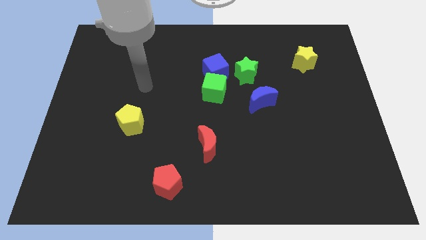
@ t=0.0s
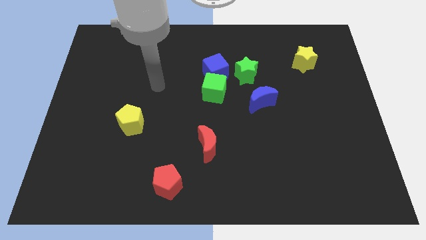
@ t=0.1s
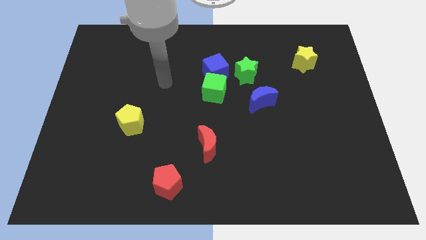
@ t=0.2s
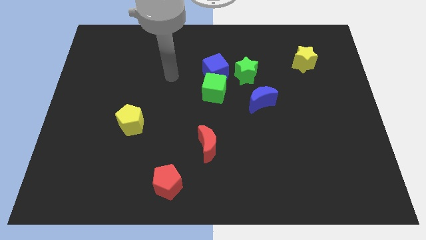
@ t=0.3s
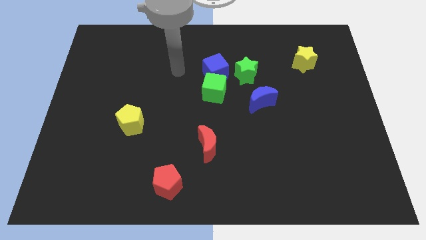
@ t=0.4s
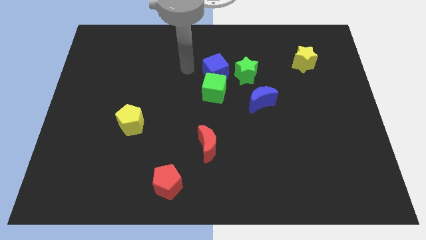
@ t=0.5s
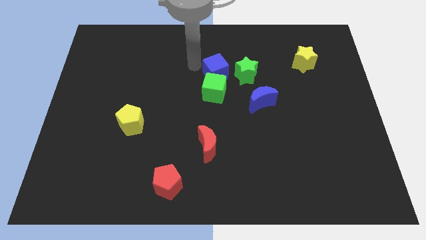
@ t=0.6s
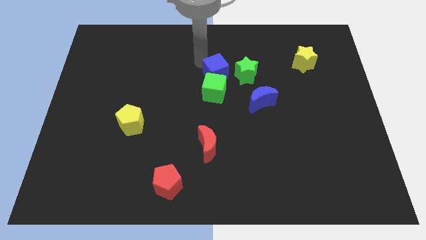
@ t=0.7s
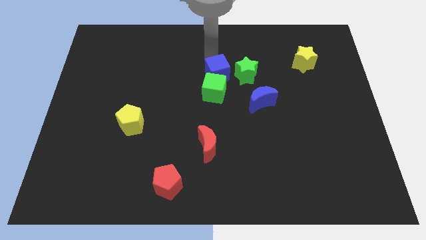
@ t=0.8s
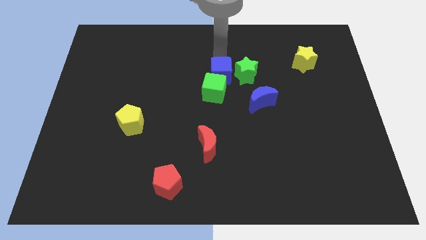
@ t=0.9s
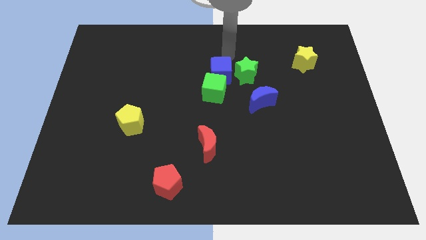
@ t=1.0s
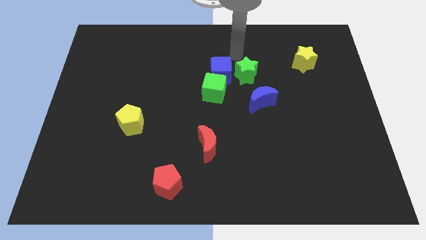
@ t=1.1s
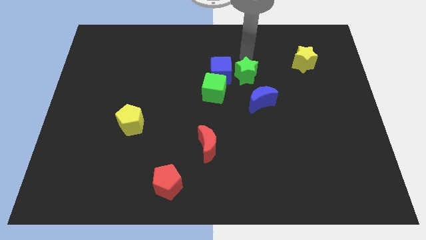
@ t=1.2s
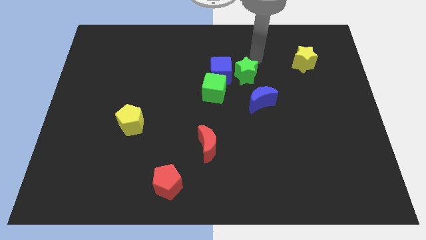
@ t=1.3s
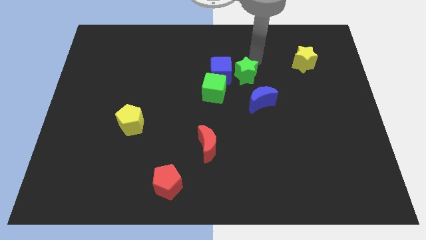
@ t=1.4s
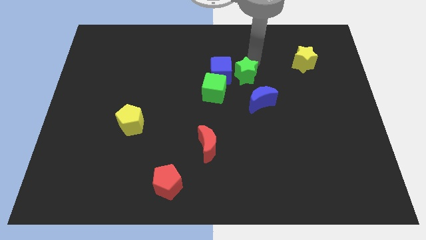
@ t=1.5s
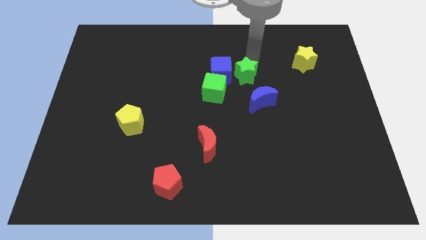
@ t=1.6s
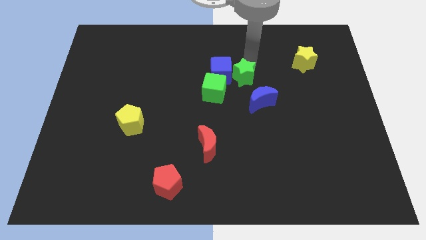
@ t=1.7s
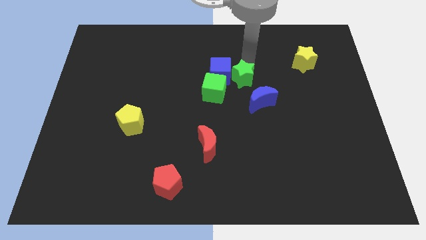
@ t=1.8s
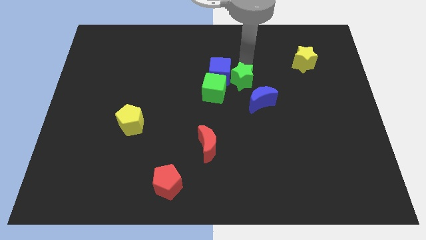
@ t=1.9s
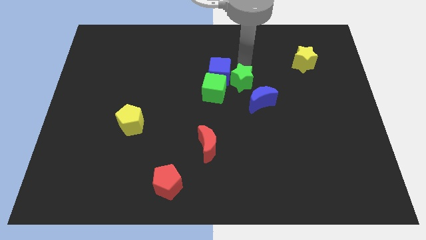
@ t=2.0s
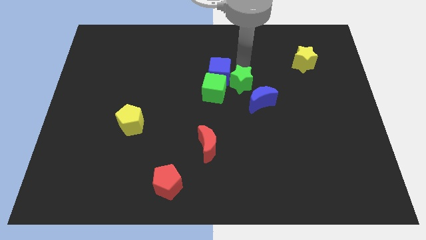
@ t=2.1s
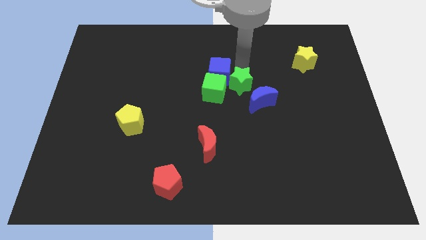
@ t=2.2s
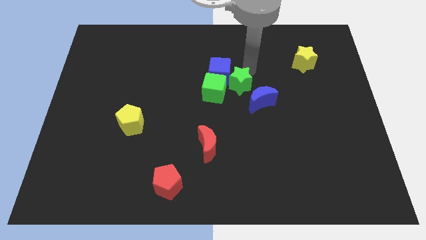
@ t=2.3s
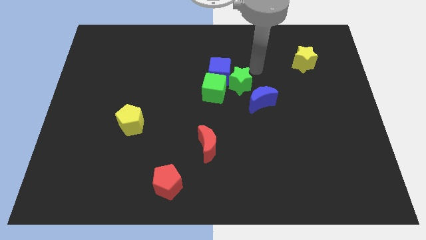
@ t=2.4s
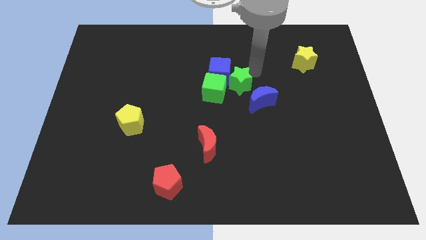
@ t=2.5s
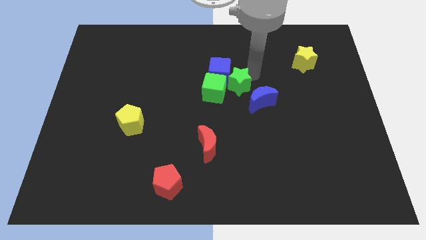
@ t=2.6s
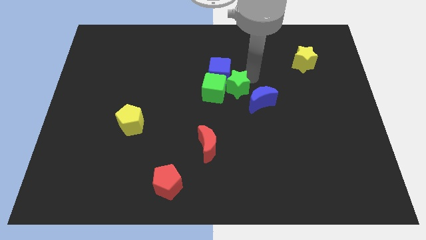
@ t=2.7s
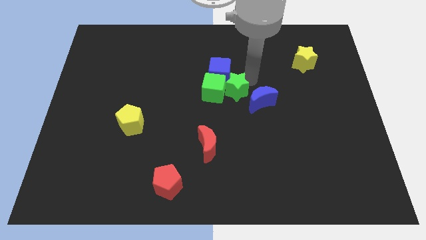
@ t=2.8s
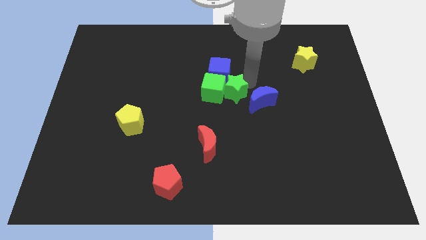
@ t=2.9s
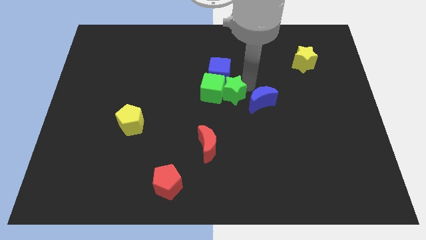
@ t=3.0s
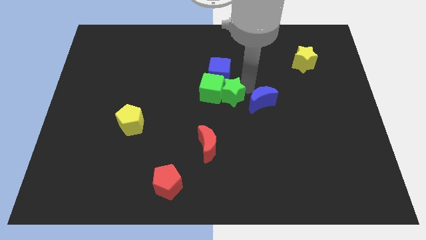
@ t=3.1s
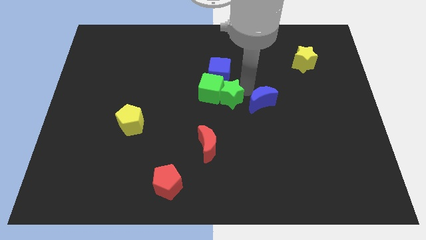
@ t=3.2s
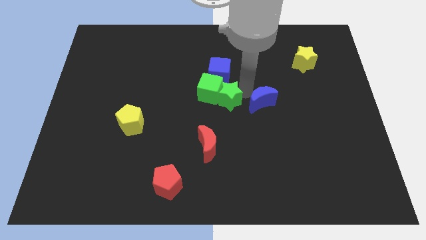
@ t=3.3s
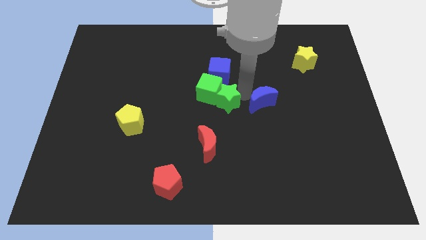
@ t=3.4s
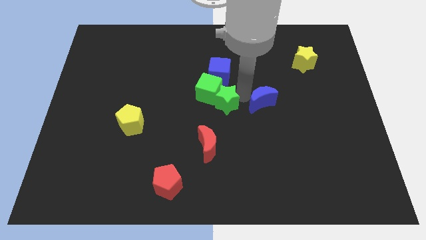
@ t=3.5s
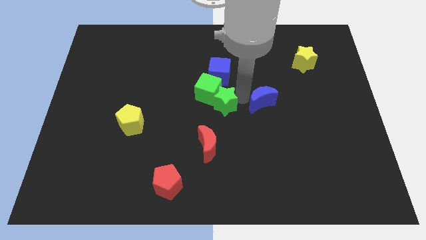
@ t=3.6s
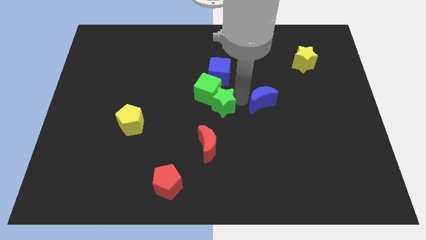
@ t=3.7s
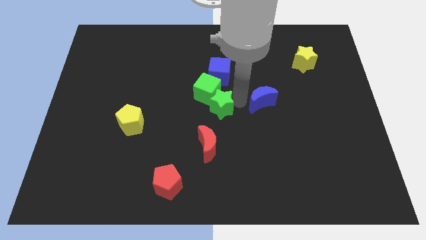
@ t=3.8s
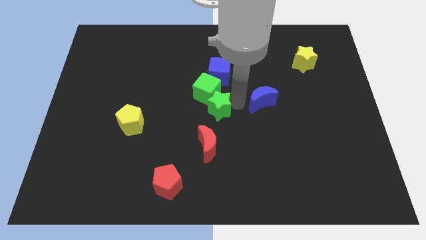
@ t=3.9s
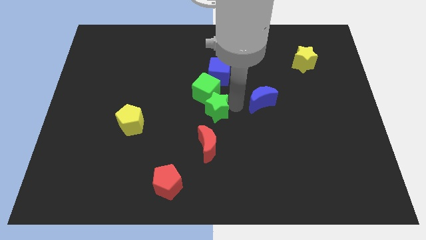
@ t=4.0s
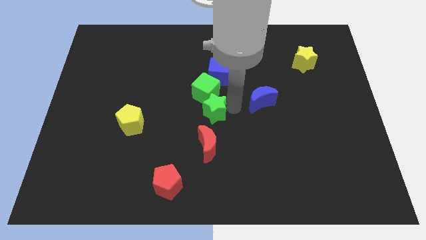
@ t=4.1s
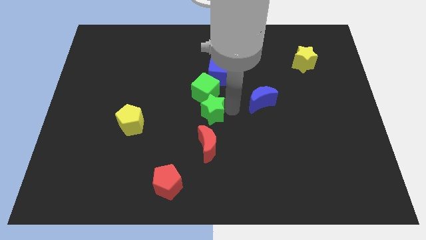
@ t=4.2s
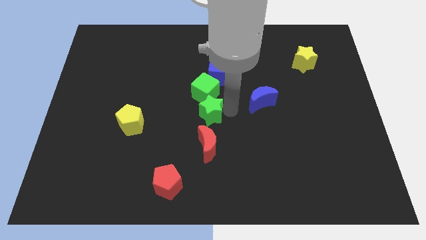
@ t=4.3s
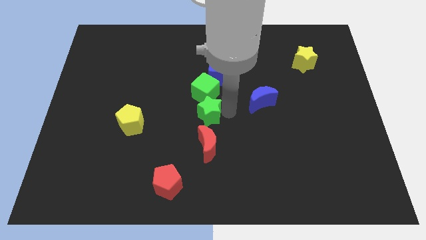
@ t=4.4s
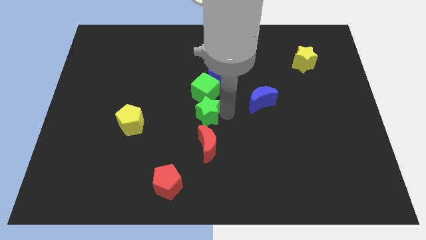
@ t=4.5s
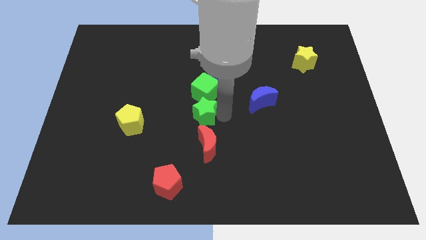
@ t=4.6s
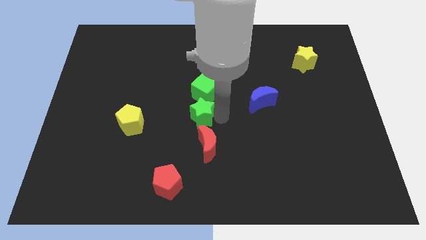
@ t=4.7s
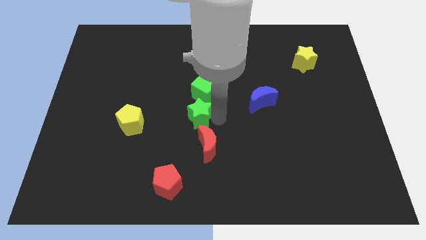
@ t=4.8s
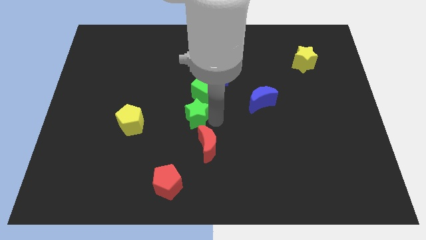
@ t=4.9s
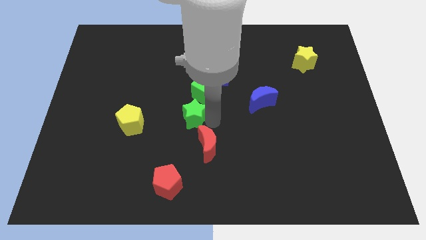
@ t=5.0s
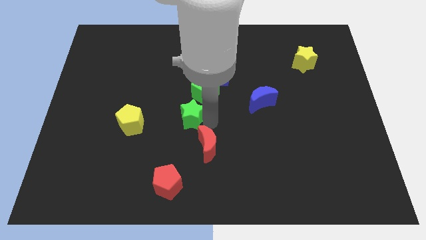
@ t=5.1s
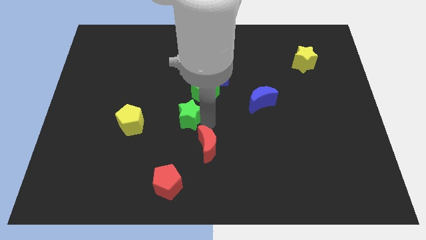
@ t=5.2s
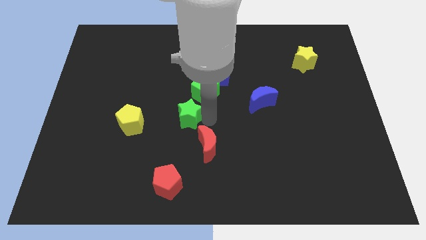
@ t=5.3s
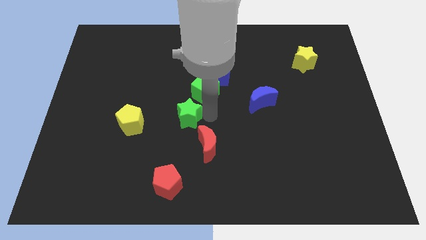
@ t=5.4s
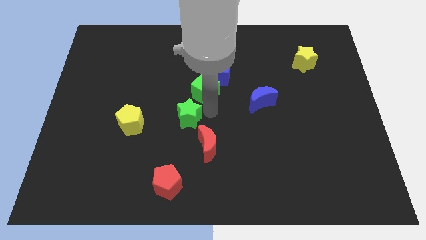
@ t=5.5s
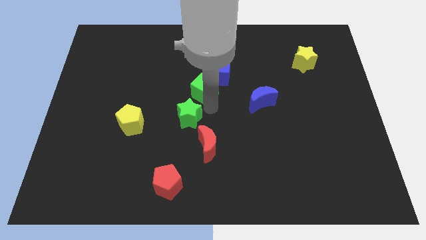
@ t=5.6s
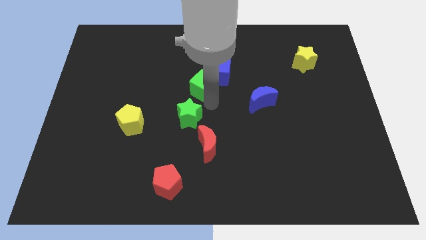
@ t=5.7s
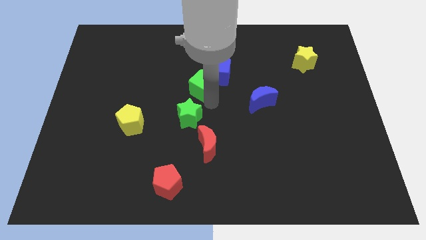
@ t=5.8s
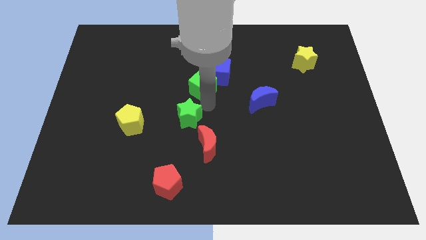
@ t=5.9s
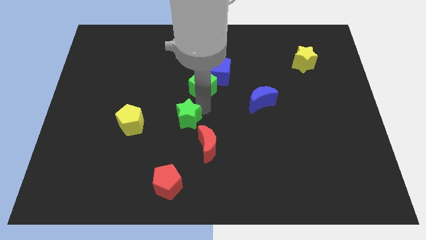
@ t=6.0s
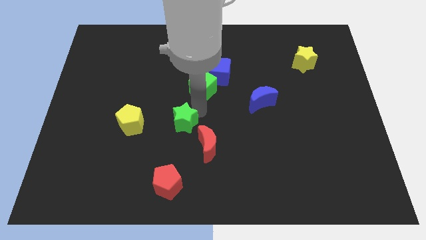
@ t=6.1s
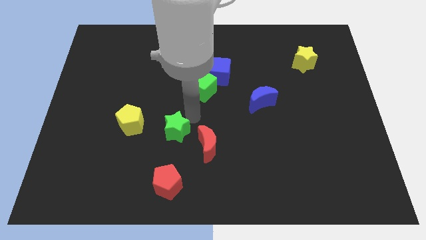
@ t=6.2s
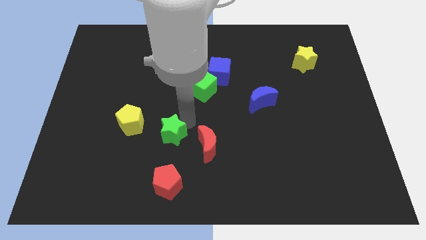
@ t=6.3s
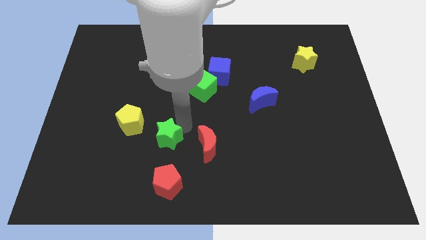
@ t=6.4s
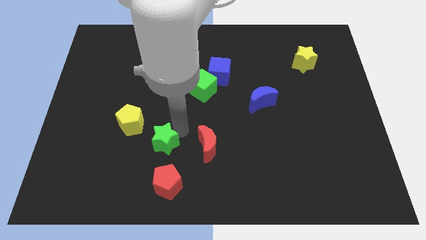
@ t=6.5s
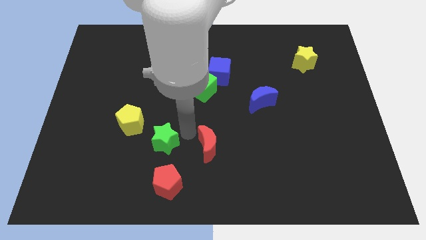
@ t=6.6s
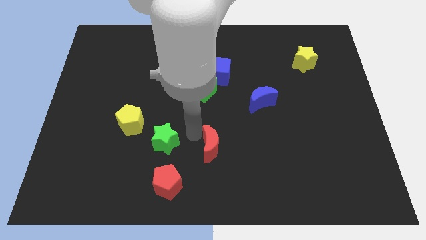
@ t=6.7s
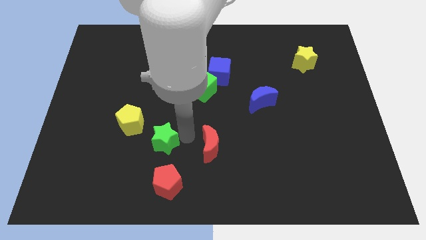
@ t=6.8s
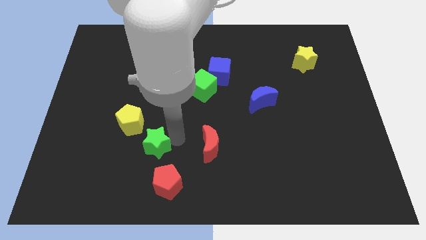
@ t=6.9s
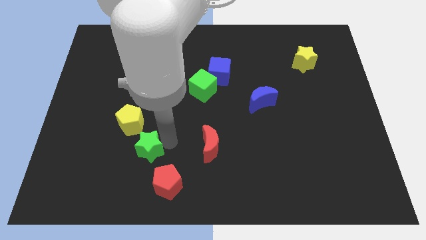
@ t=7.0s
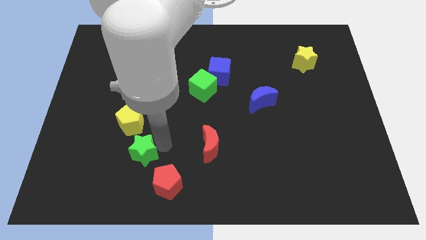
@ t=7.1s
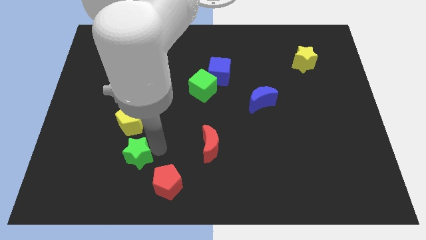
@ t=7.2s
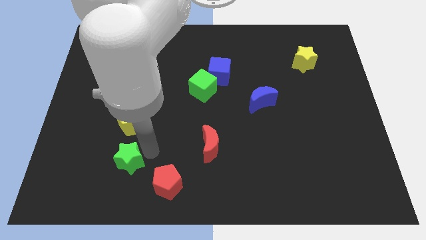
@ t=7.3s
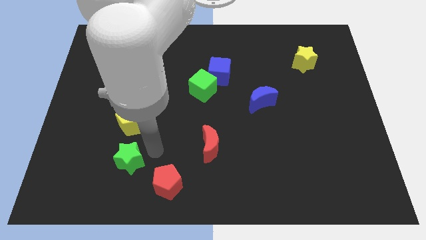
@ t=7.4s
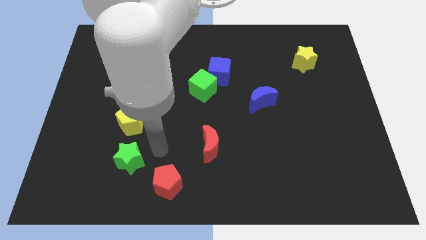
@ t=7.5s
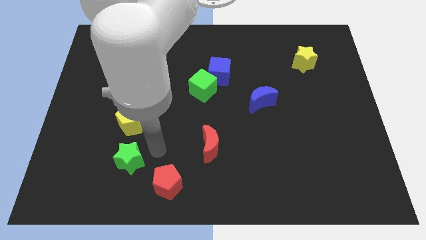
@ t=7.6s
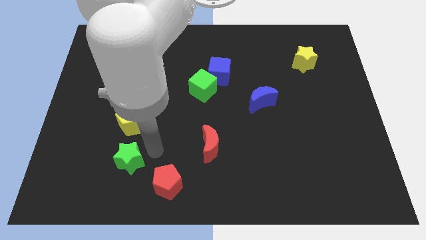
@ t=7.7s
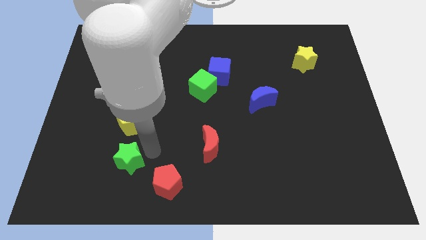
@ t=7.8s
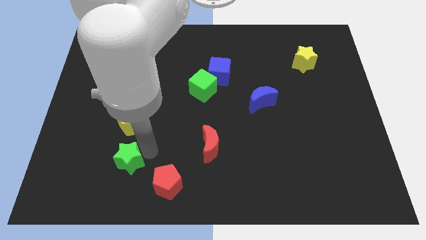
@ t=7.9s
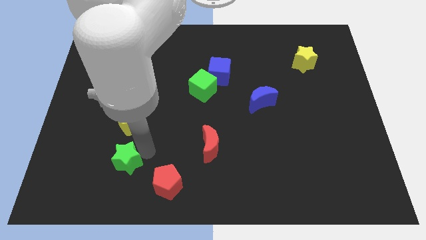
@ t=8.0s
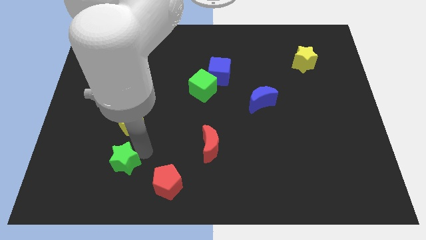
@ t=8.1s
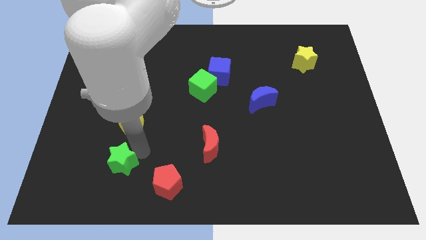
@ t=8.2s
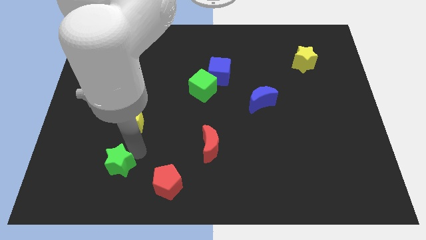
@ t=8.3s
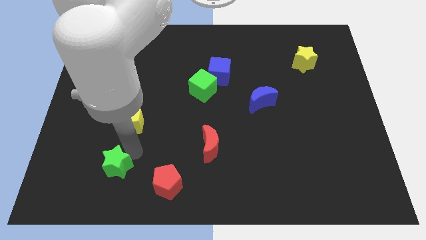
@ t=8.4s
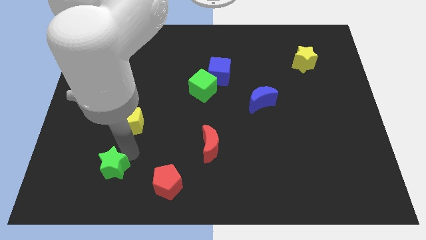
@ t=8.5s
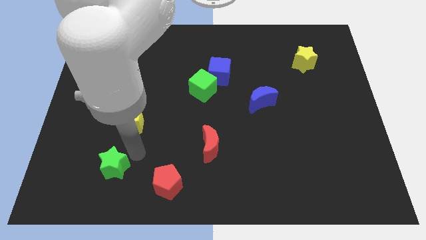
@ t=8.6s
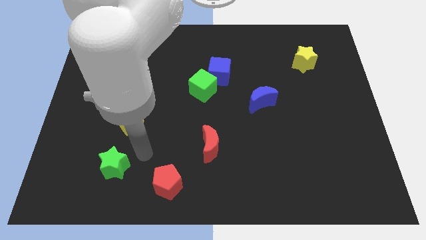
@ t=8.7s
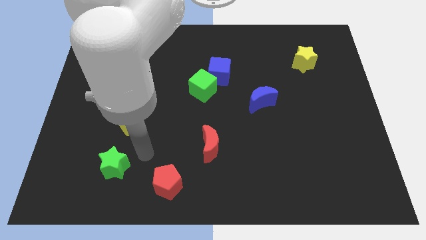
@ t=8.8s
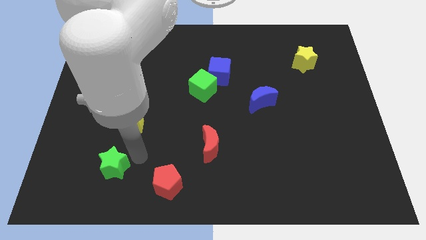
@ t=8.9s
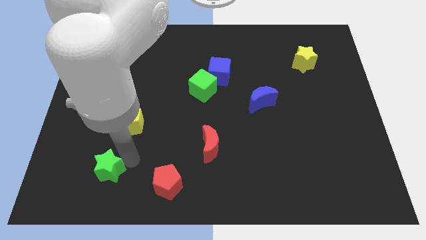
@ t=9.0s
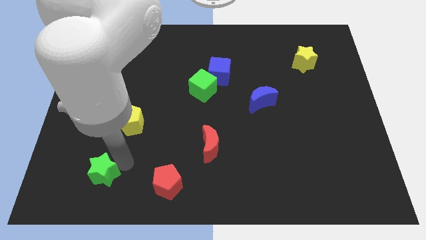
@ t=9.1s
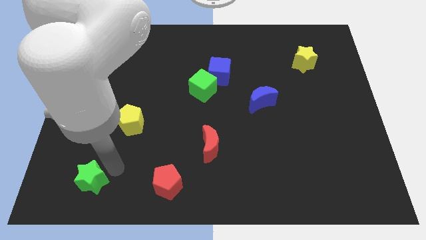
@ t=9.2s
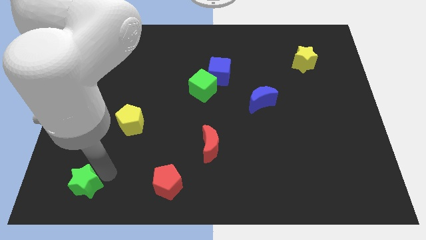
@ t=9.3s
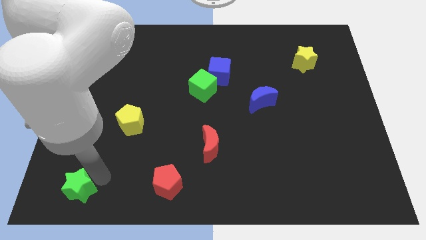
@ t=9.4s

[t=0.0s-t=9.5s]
slide the green star to the bottom left corner
